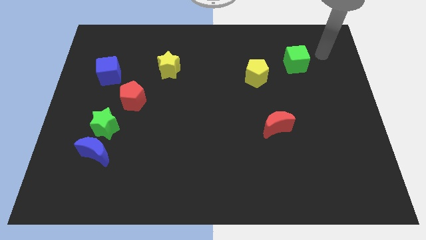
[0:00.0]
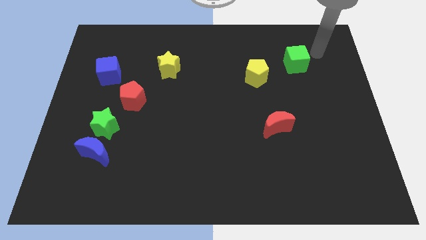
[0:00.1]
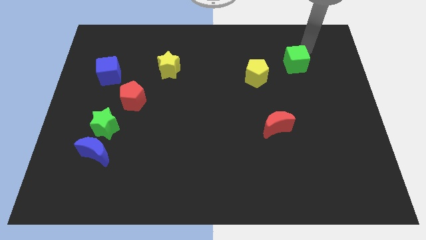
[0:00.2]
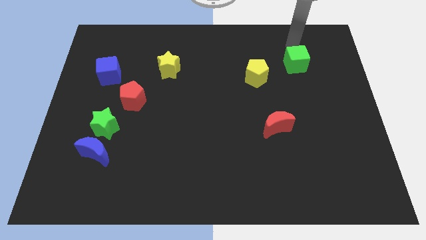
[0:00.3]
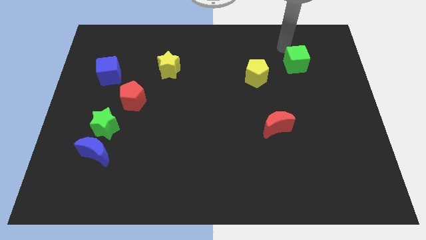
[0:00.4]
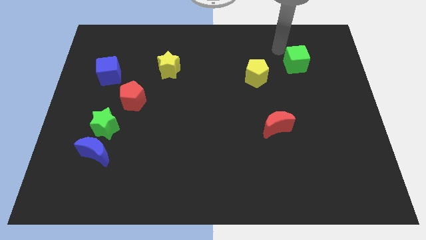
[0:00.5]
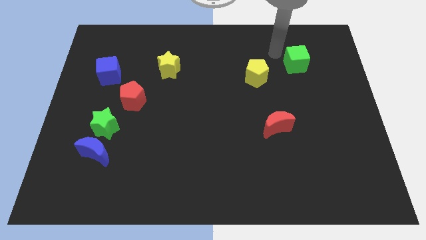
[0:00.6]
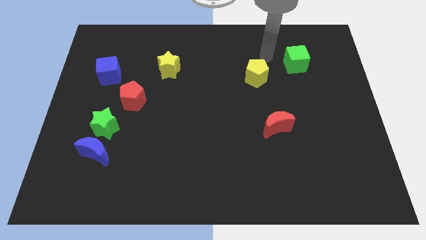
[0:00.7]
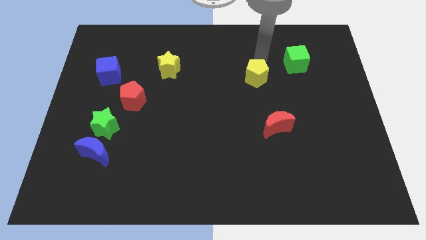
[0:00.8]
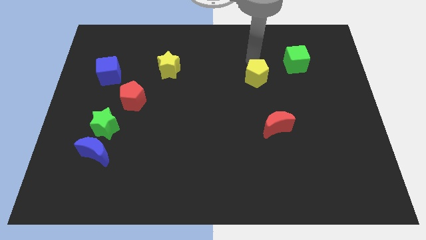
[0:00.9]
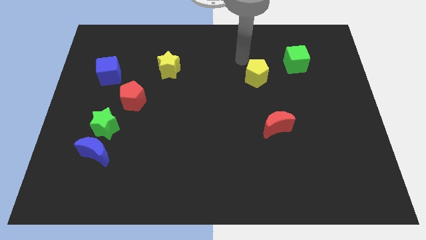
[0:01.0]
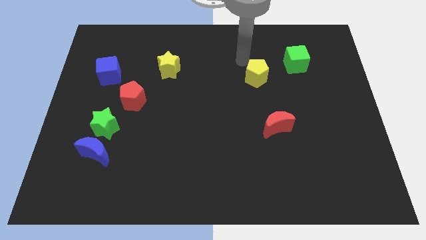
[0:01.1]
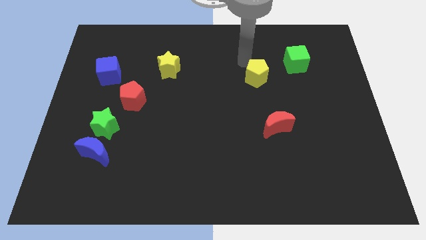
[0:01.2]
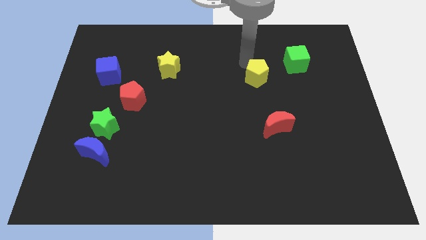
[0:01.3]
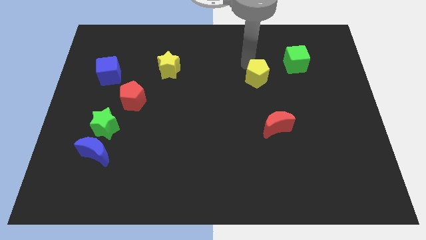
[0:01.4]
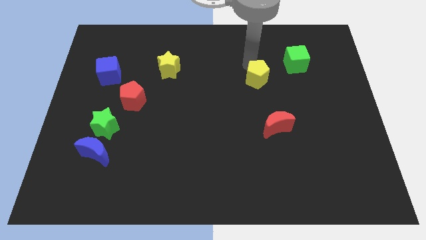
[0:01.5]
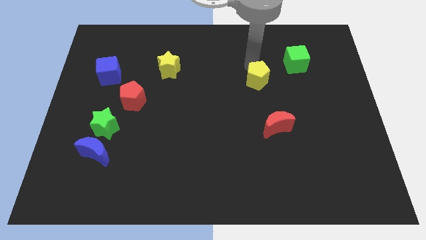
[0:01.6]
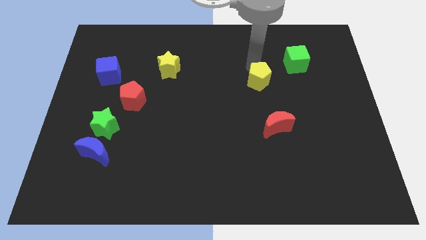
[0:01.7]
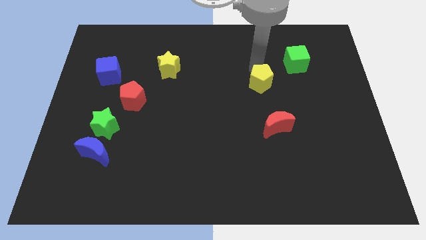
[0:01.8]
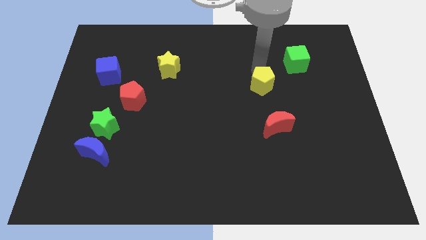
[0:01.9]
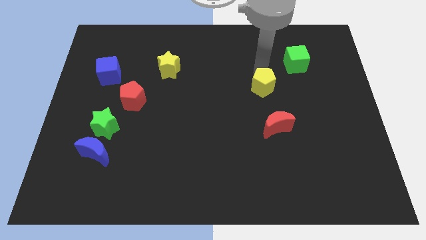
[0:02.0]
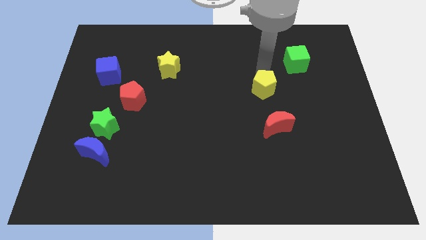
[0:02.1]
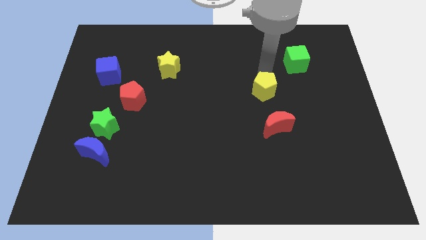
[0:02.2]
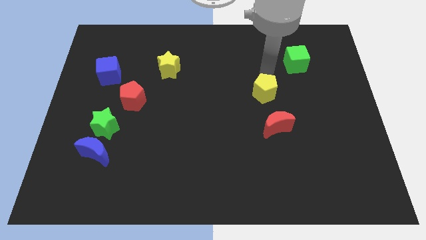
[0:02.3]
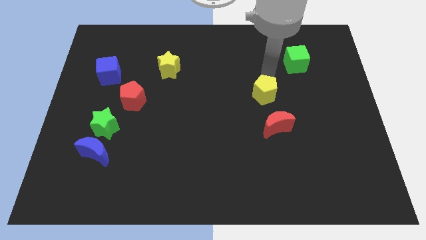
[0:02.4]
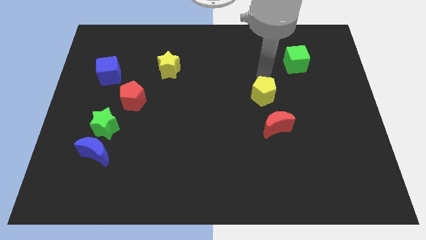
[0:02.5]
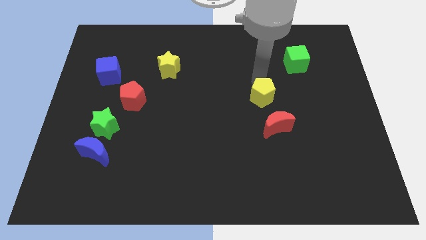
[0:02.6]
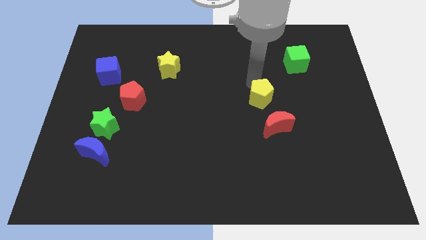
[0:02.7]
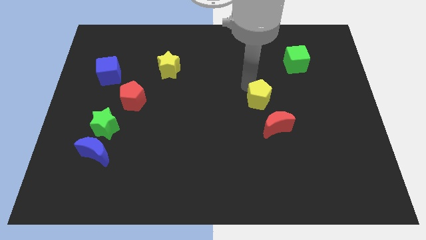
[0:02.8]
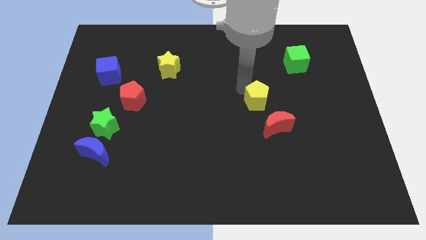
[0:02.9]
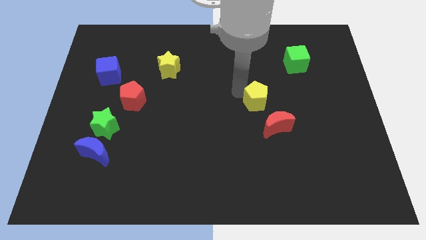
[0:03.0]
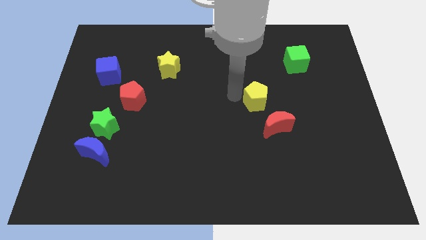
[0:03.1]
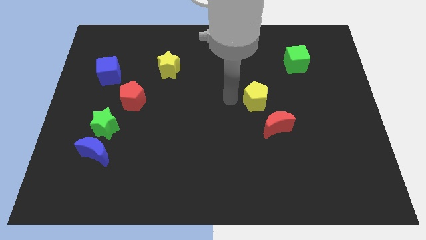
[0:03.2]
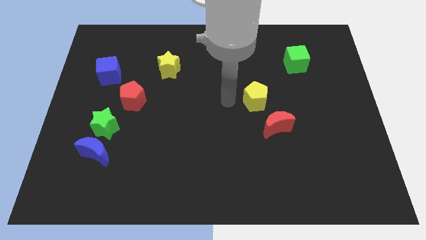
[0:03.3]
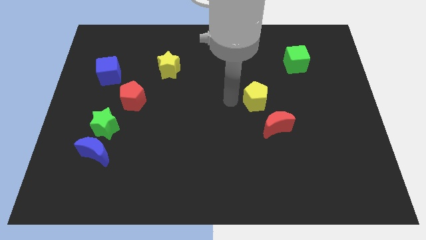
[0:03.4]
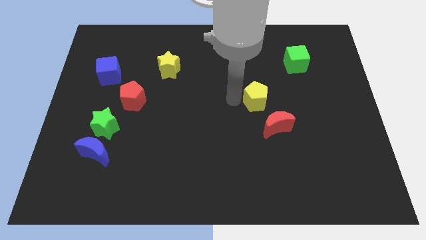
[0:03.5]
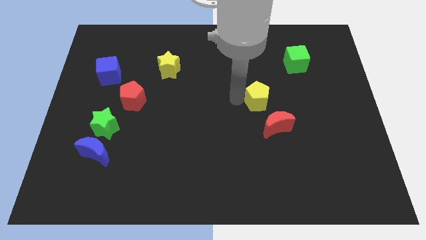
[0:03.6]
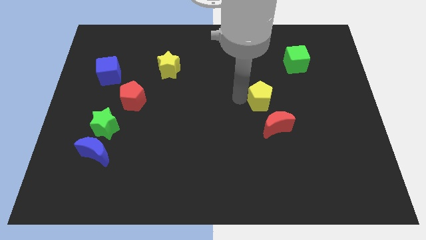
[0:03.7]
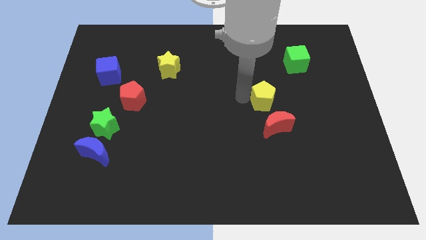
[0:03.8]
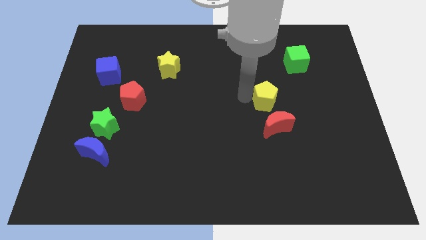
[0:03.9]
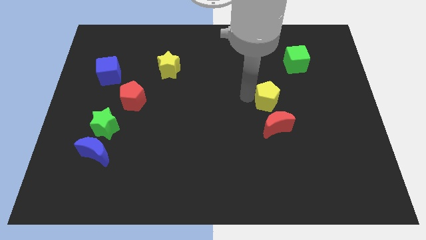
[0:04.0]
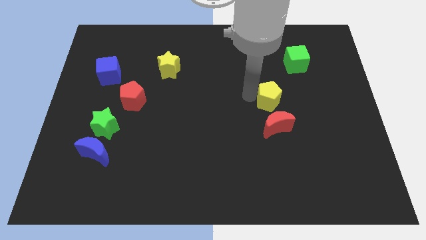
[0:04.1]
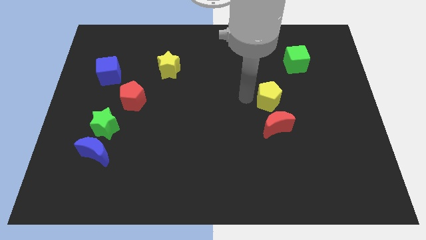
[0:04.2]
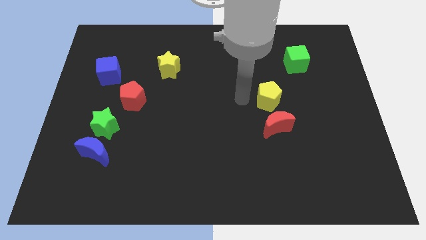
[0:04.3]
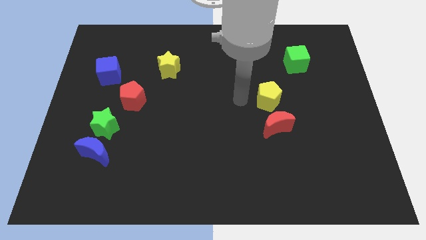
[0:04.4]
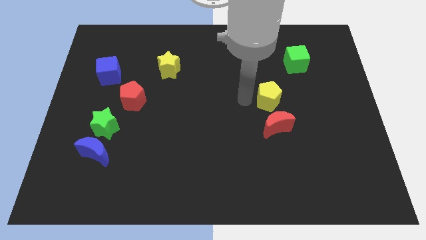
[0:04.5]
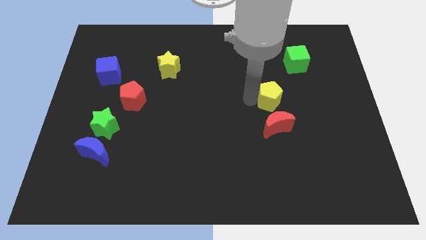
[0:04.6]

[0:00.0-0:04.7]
push the yellow pentagon down and then right a bit

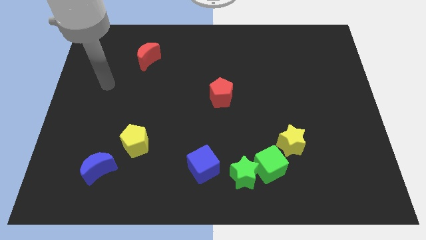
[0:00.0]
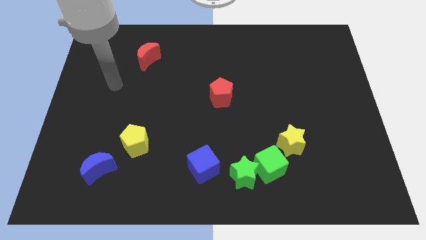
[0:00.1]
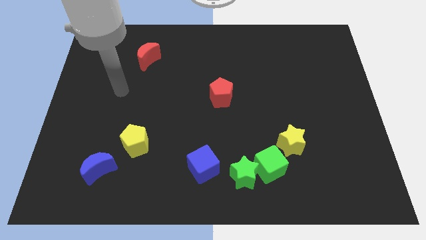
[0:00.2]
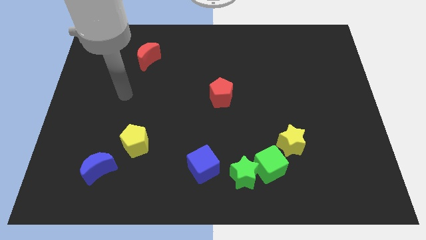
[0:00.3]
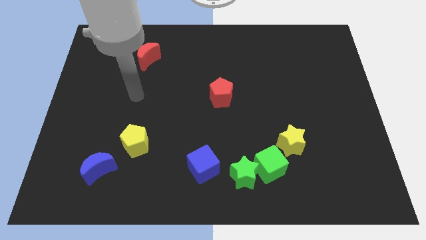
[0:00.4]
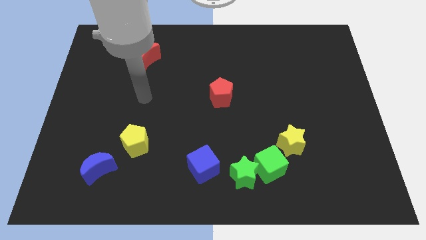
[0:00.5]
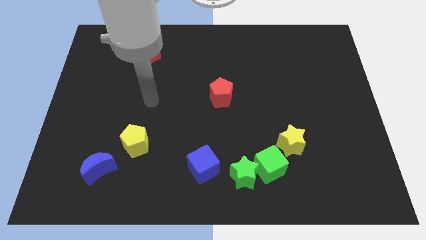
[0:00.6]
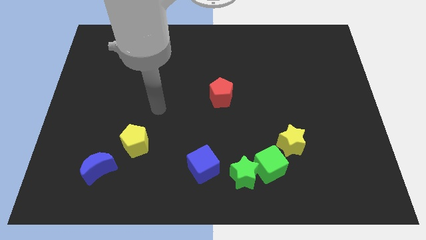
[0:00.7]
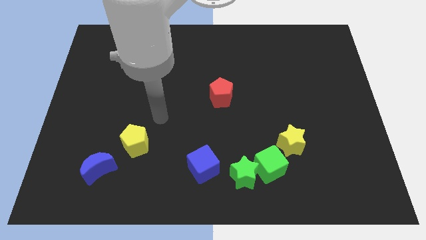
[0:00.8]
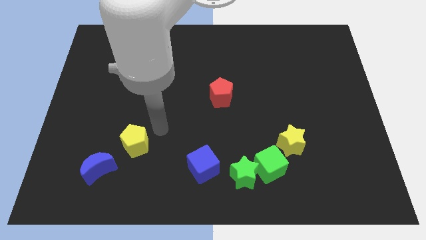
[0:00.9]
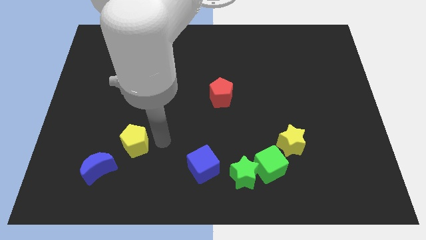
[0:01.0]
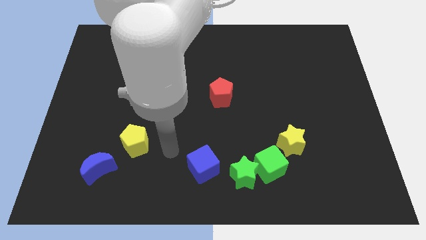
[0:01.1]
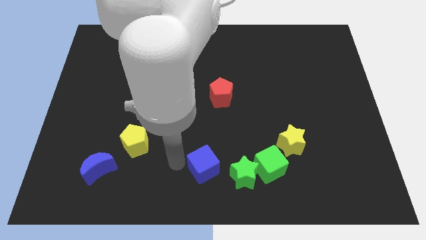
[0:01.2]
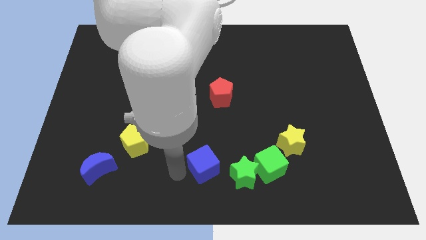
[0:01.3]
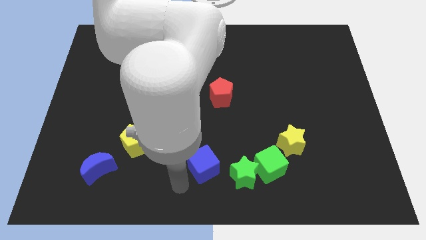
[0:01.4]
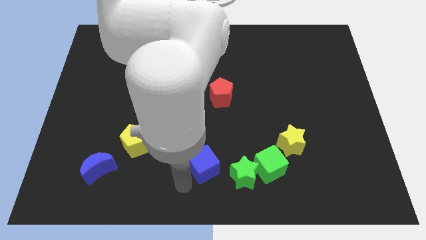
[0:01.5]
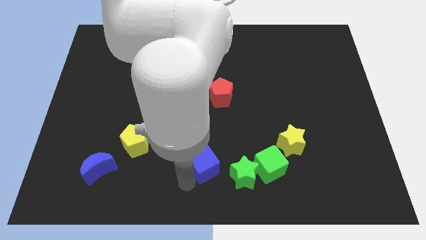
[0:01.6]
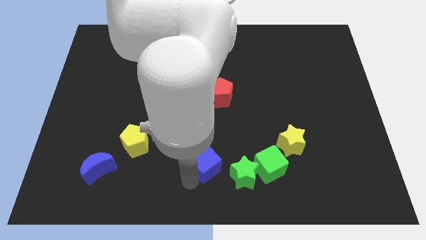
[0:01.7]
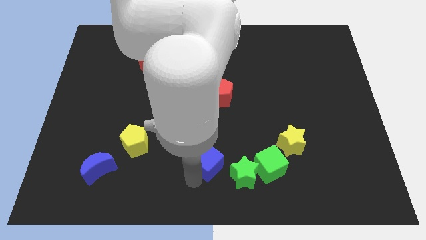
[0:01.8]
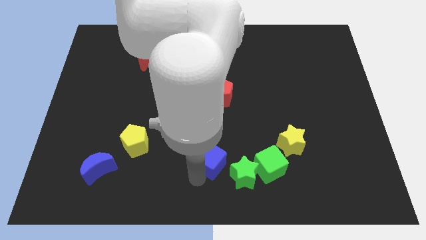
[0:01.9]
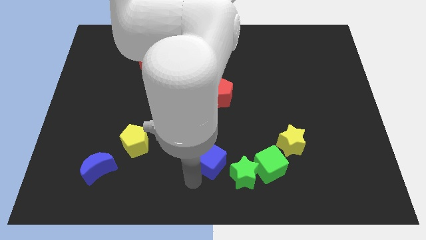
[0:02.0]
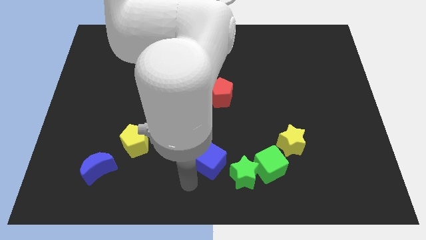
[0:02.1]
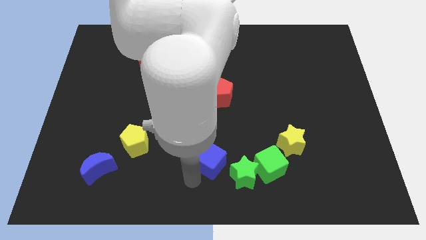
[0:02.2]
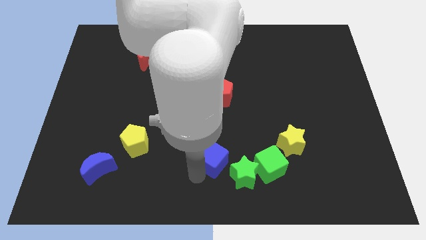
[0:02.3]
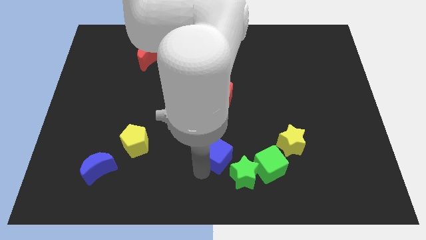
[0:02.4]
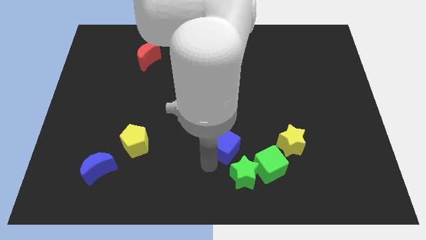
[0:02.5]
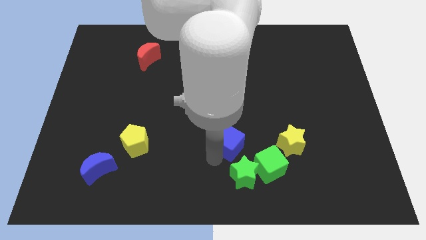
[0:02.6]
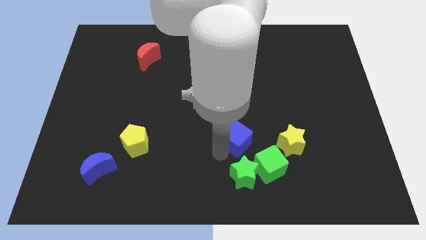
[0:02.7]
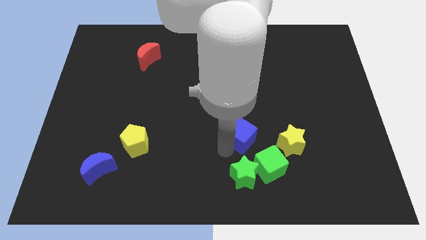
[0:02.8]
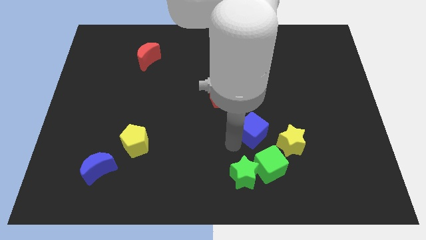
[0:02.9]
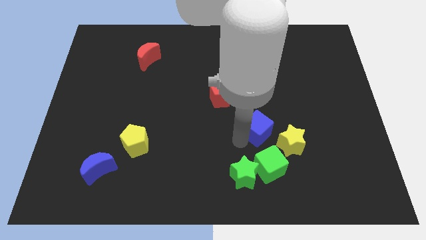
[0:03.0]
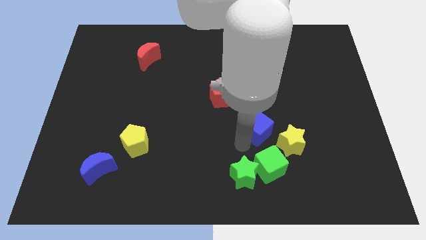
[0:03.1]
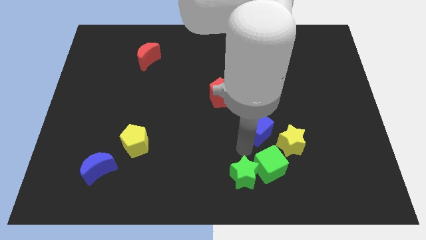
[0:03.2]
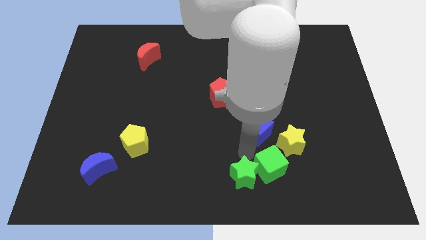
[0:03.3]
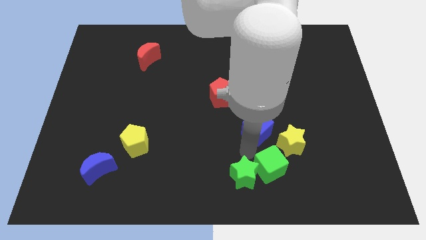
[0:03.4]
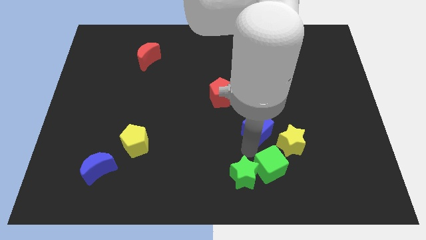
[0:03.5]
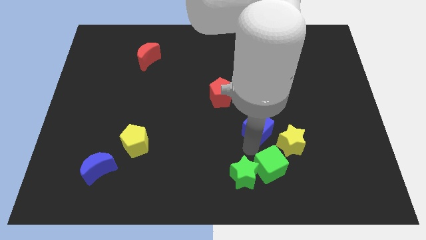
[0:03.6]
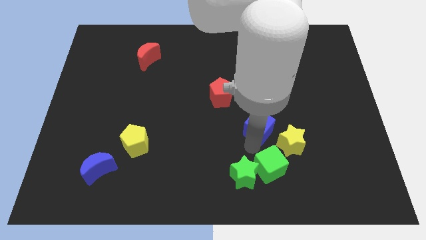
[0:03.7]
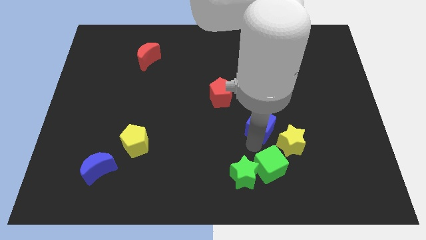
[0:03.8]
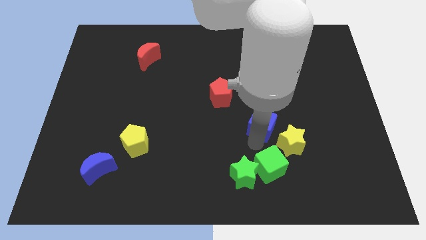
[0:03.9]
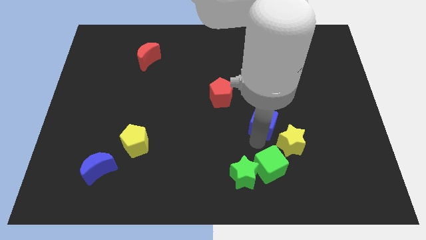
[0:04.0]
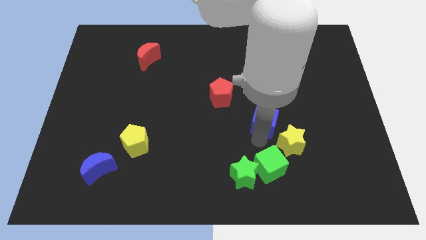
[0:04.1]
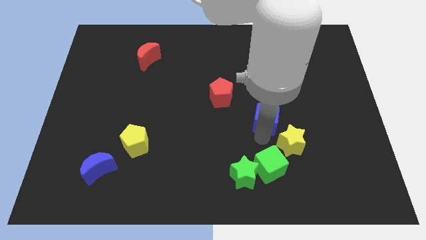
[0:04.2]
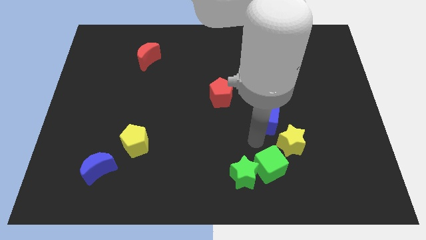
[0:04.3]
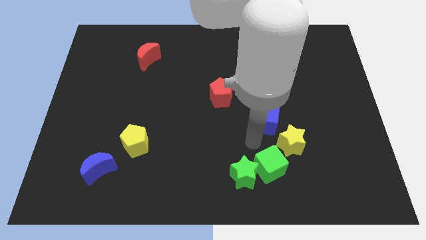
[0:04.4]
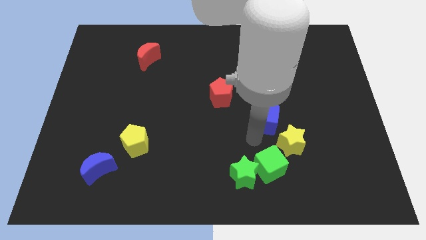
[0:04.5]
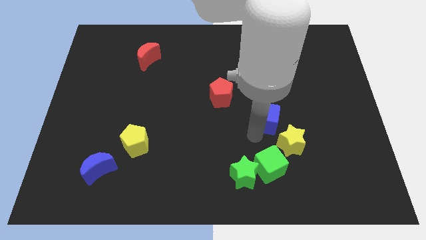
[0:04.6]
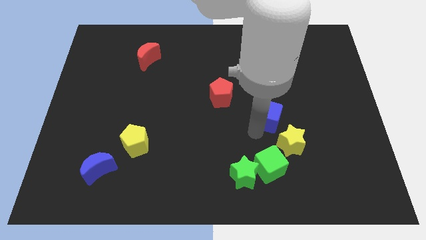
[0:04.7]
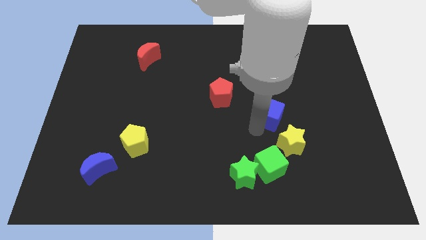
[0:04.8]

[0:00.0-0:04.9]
slide the blue cube up and then to the right
